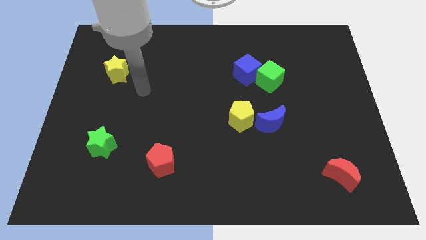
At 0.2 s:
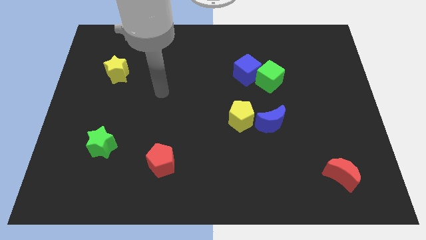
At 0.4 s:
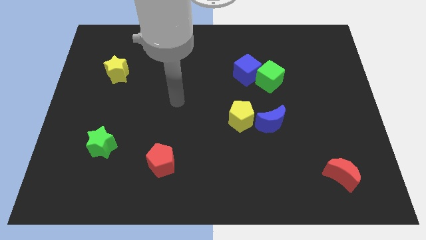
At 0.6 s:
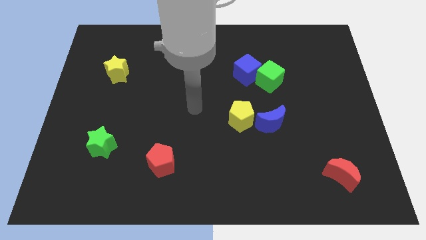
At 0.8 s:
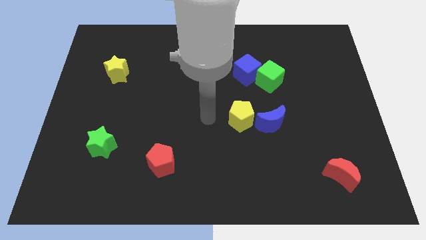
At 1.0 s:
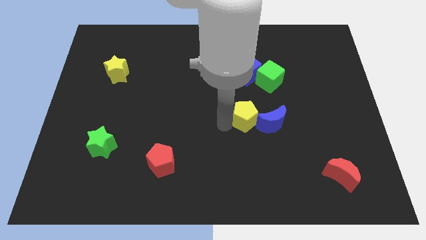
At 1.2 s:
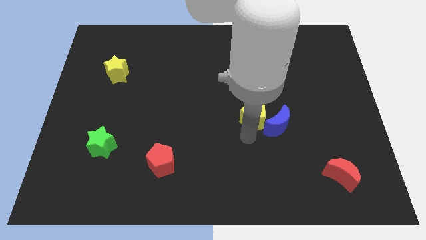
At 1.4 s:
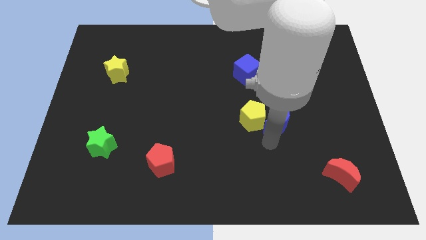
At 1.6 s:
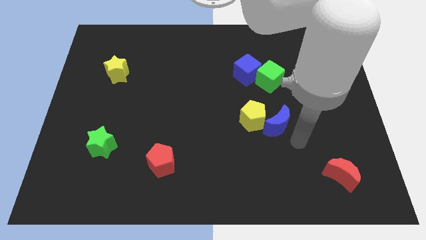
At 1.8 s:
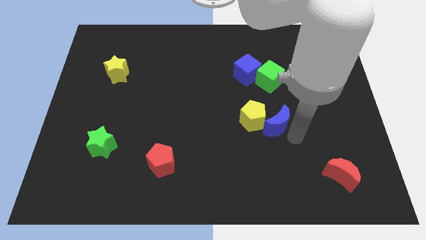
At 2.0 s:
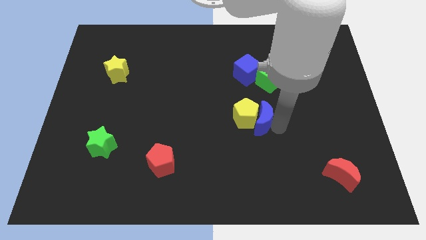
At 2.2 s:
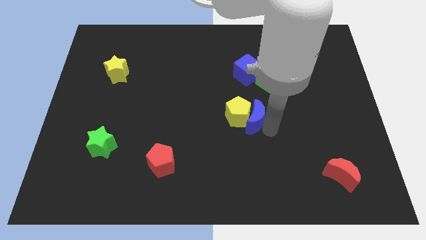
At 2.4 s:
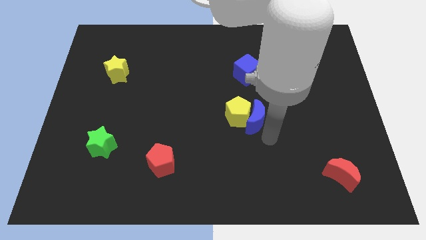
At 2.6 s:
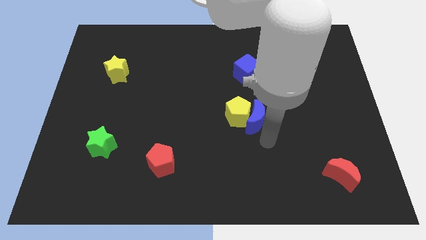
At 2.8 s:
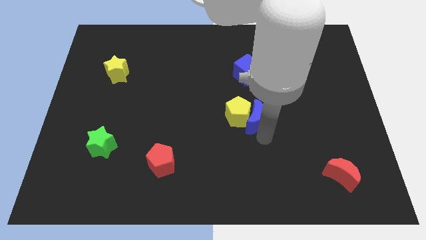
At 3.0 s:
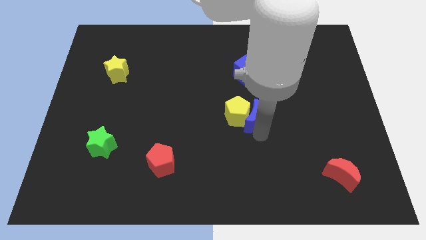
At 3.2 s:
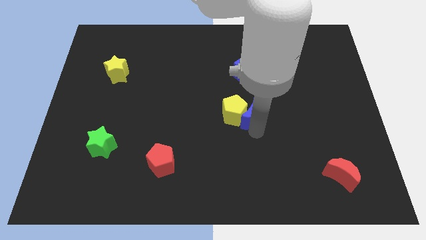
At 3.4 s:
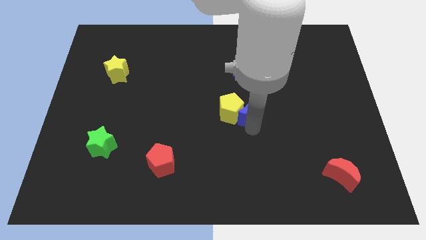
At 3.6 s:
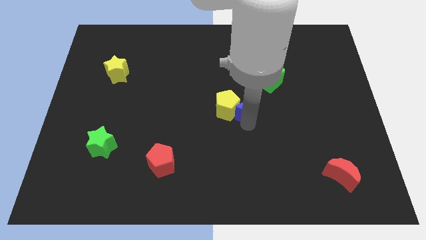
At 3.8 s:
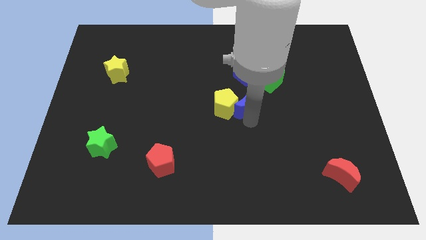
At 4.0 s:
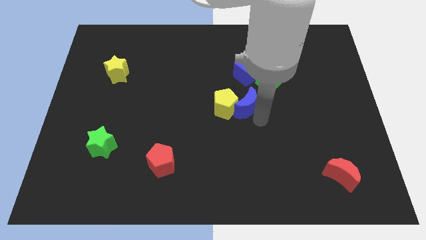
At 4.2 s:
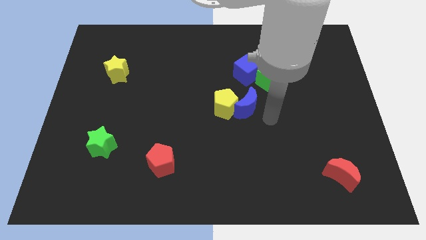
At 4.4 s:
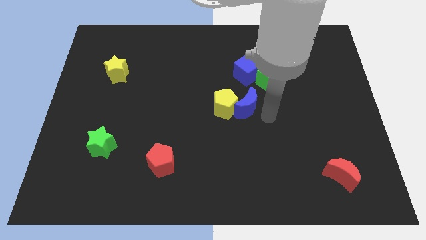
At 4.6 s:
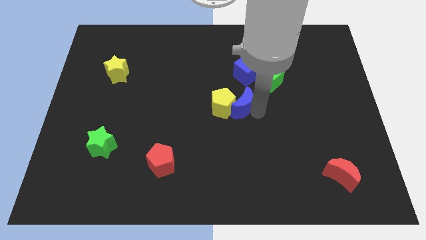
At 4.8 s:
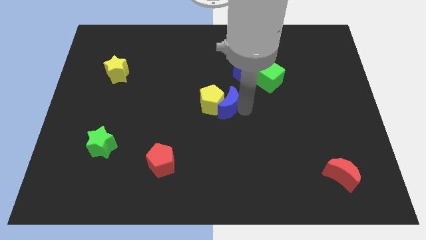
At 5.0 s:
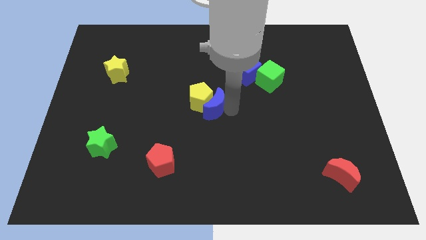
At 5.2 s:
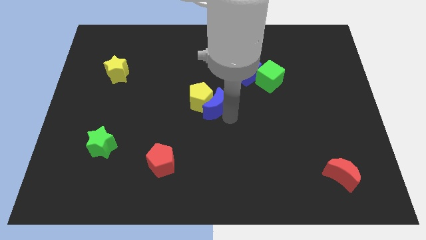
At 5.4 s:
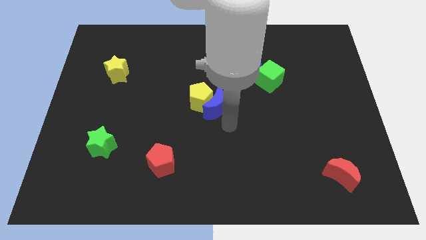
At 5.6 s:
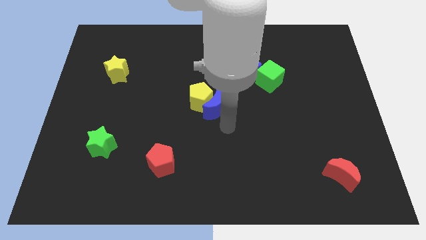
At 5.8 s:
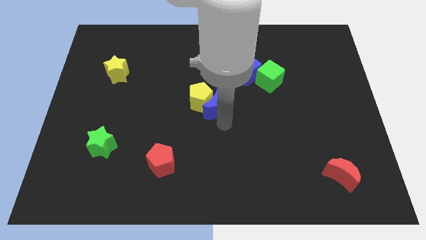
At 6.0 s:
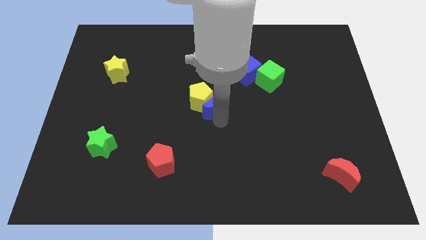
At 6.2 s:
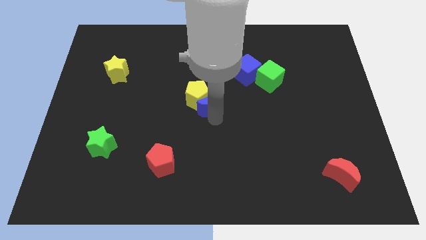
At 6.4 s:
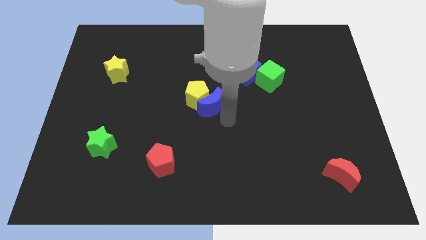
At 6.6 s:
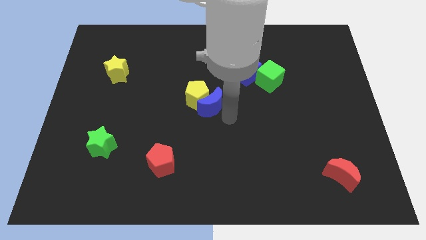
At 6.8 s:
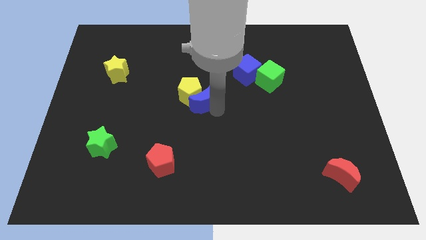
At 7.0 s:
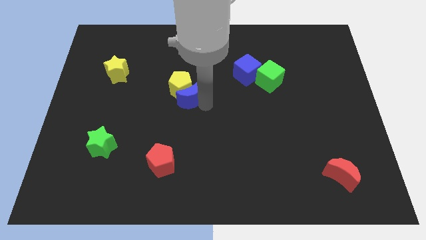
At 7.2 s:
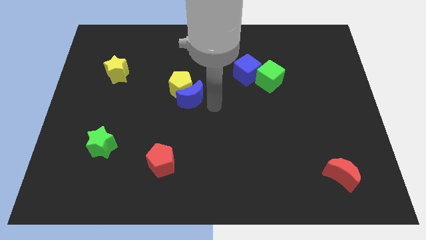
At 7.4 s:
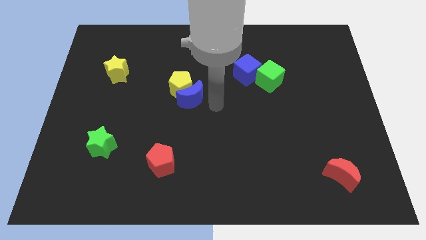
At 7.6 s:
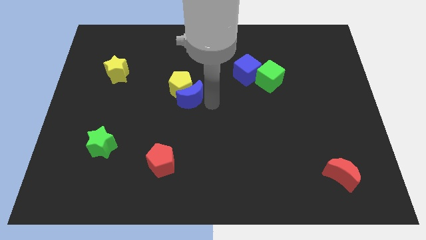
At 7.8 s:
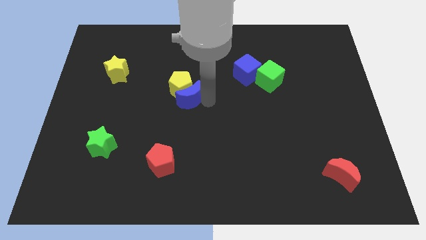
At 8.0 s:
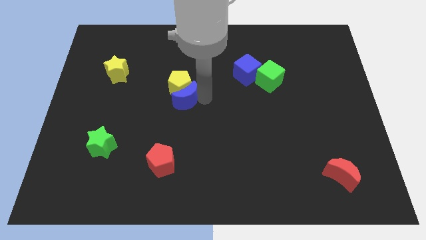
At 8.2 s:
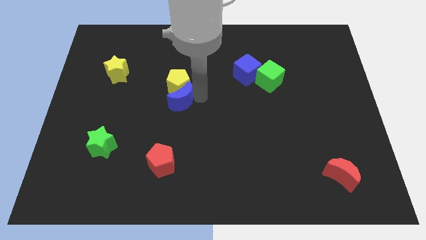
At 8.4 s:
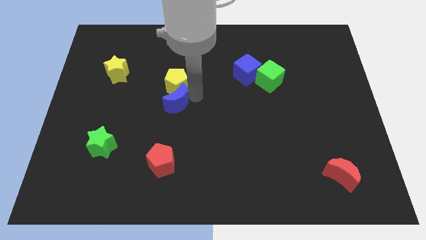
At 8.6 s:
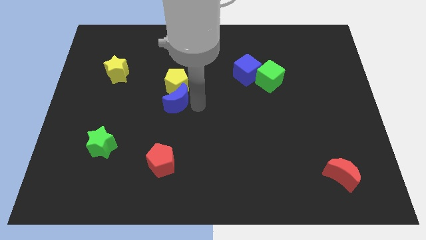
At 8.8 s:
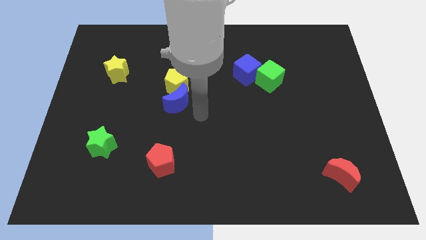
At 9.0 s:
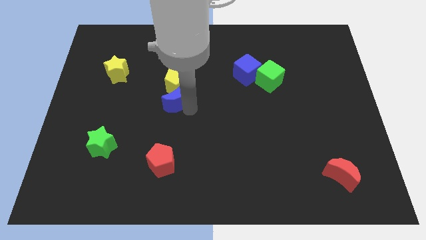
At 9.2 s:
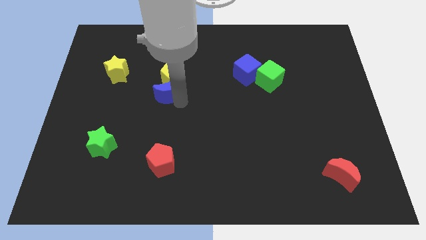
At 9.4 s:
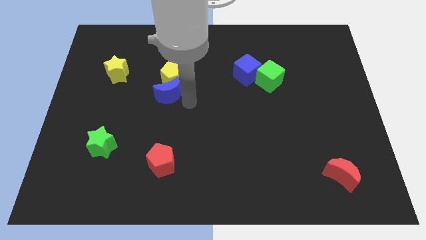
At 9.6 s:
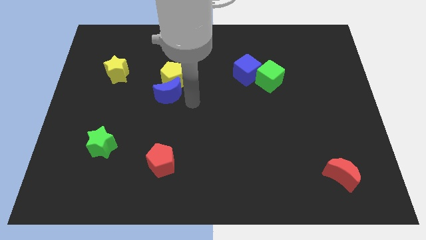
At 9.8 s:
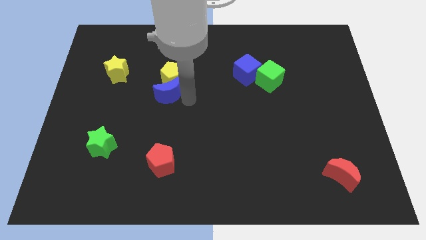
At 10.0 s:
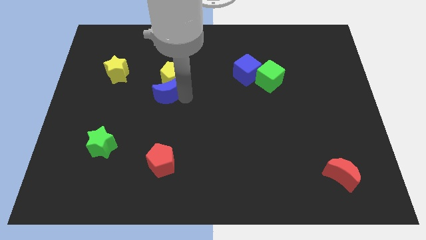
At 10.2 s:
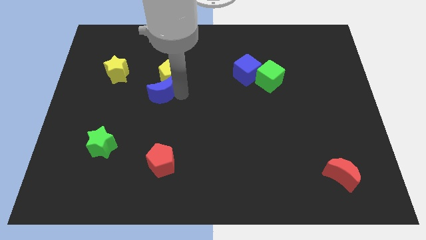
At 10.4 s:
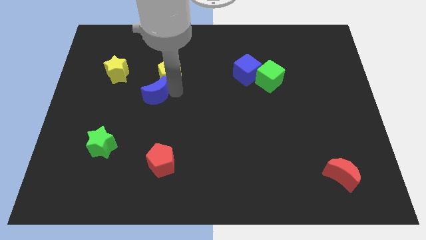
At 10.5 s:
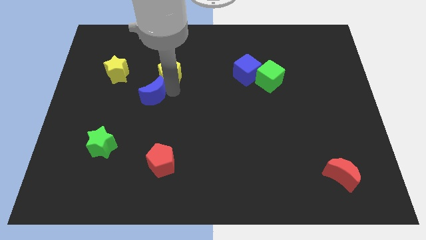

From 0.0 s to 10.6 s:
push the blue moon diagonally down and to the right of the yellow star
